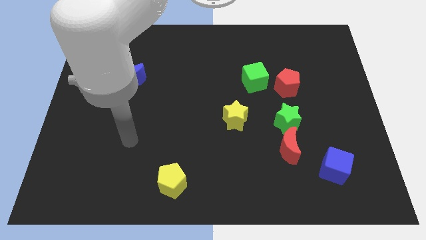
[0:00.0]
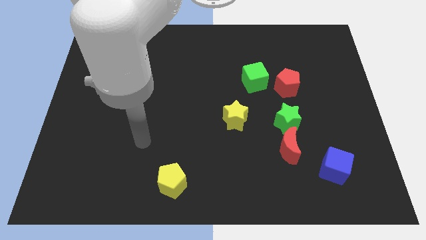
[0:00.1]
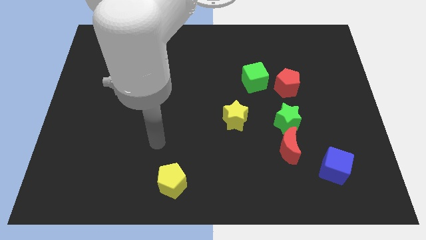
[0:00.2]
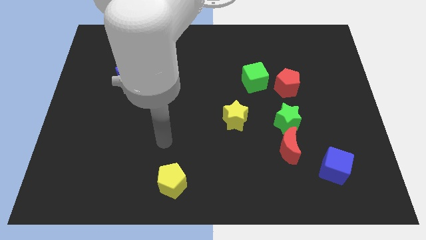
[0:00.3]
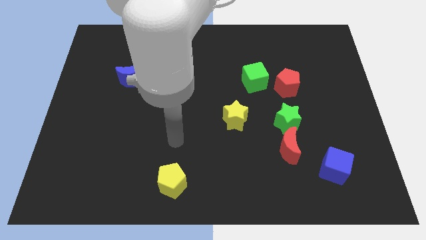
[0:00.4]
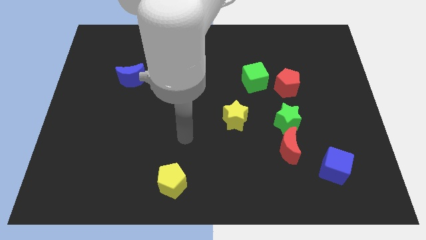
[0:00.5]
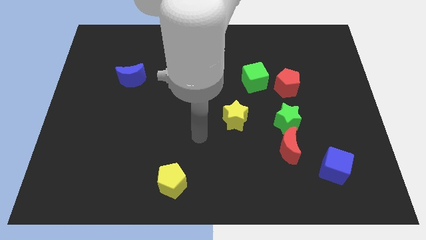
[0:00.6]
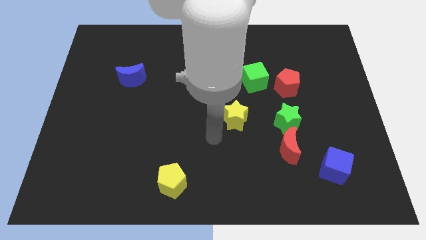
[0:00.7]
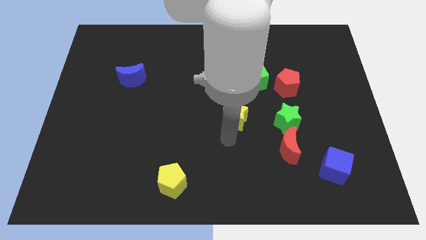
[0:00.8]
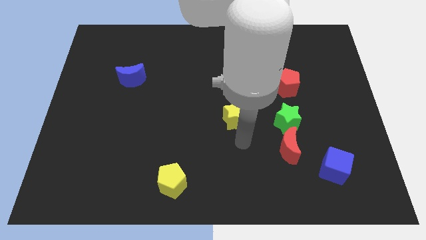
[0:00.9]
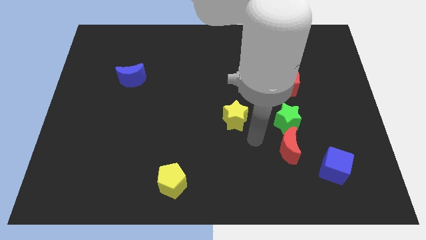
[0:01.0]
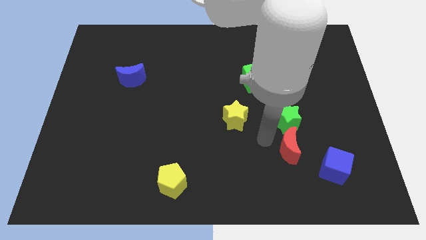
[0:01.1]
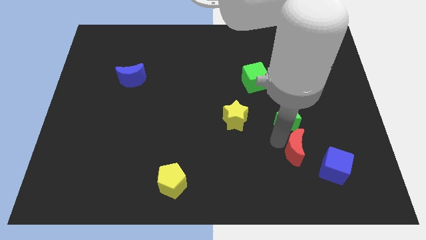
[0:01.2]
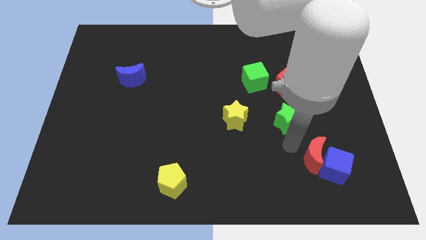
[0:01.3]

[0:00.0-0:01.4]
pull the green star apart from the red moon

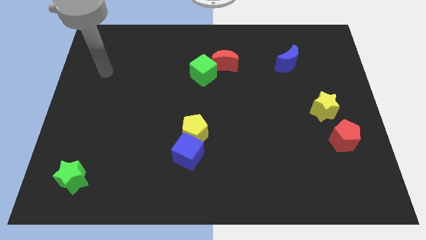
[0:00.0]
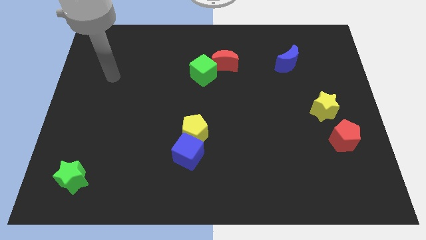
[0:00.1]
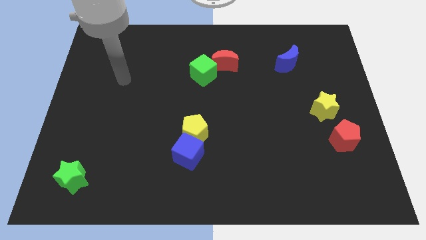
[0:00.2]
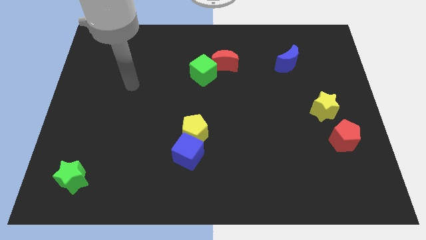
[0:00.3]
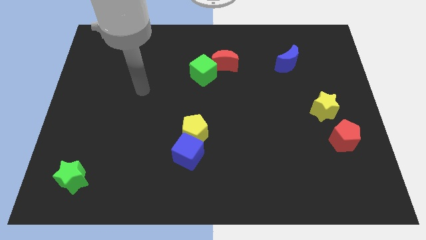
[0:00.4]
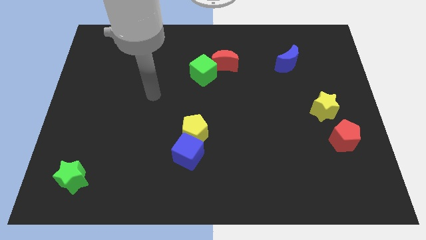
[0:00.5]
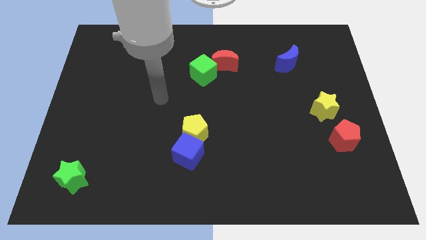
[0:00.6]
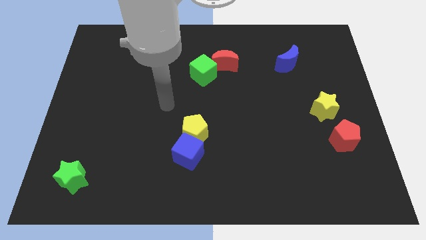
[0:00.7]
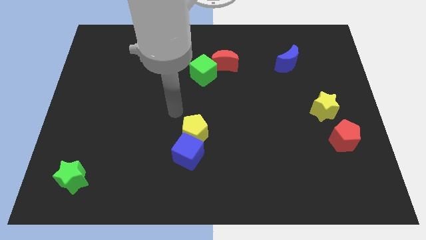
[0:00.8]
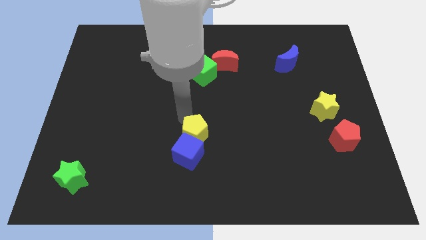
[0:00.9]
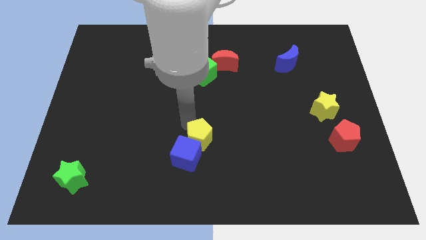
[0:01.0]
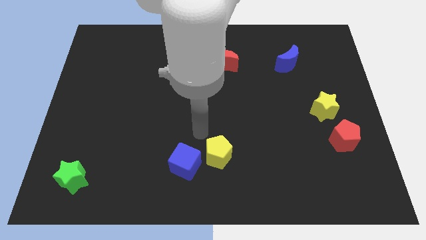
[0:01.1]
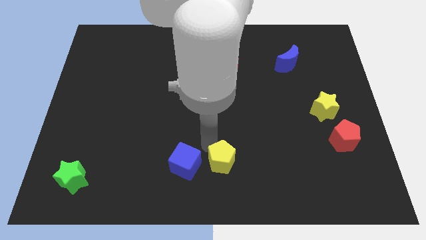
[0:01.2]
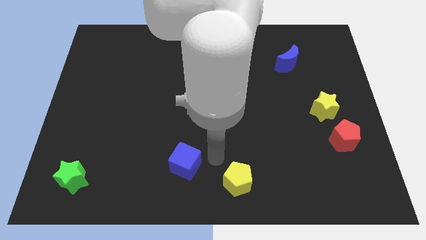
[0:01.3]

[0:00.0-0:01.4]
pull the blue cube apart from the yellow pentagon

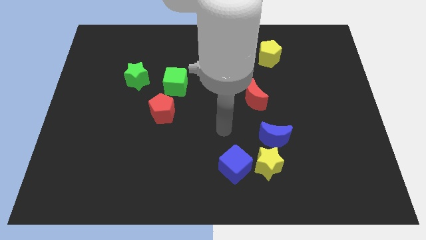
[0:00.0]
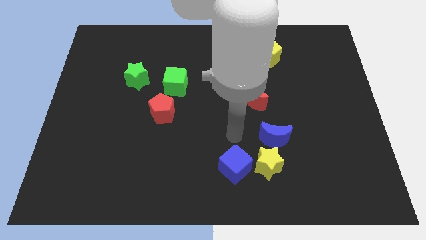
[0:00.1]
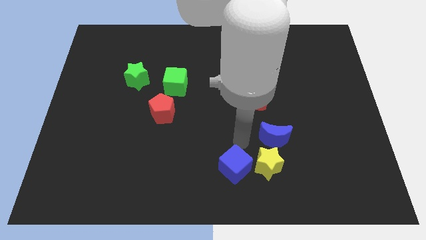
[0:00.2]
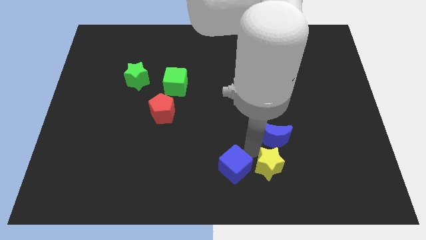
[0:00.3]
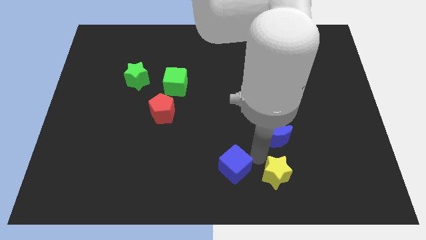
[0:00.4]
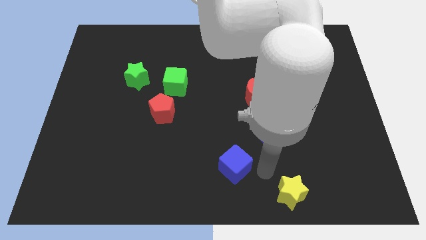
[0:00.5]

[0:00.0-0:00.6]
move the blue cube away from the yellow star

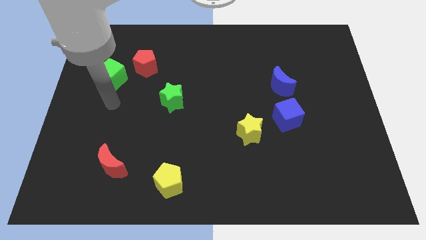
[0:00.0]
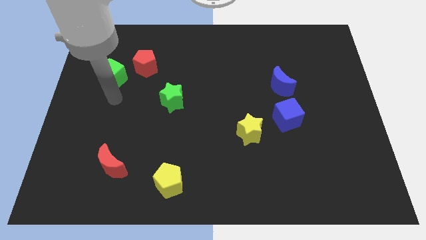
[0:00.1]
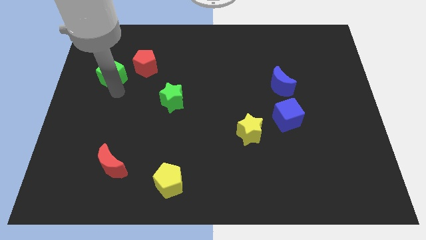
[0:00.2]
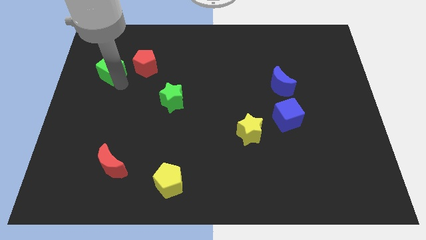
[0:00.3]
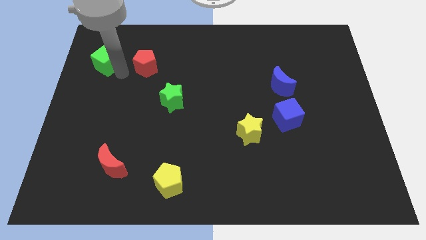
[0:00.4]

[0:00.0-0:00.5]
move the red pentagon away from the green cube

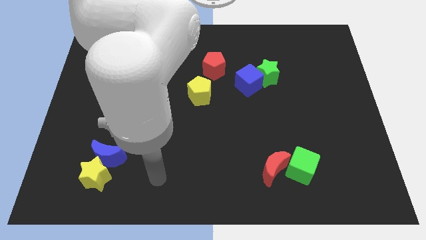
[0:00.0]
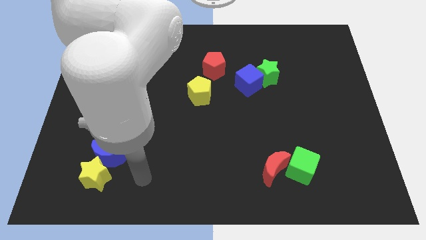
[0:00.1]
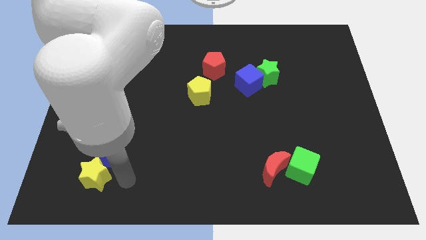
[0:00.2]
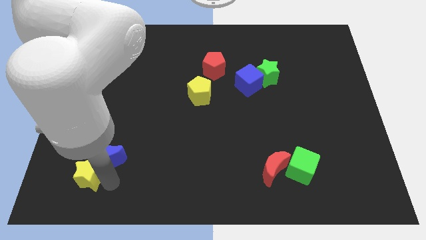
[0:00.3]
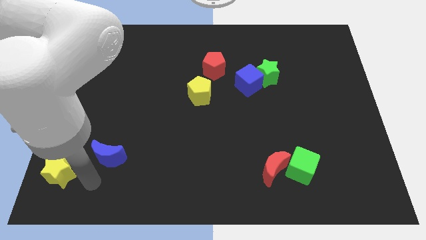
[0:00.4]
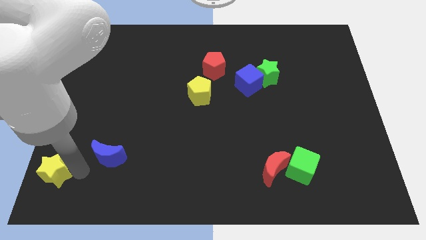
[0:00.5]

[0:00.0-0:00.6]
pull the blue moon apart from the yellow star

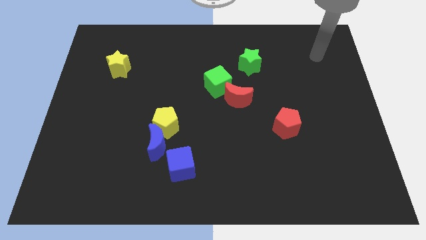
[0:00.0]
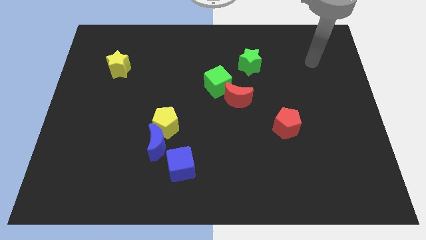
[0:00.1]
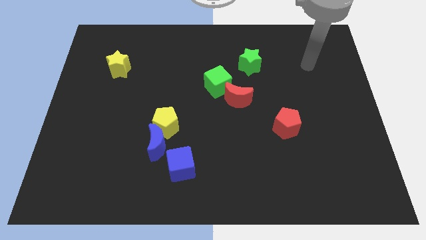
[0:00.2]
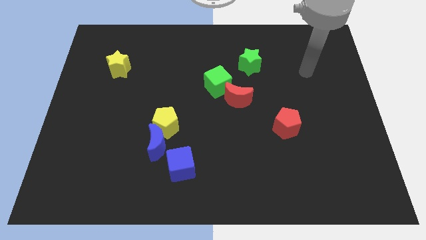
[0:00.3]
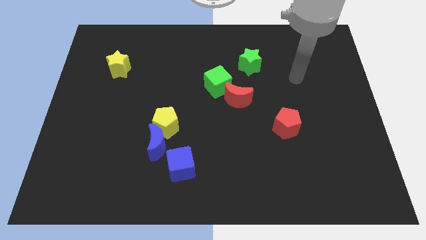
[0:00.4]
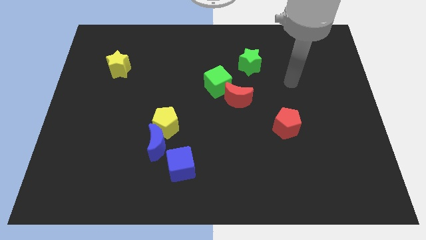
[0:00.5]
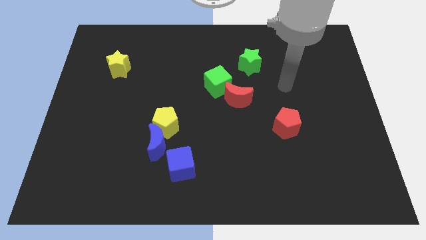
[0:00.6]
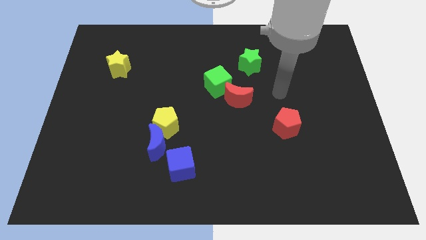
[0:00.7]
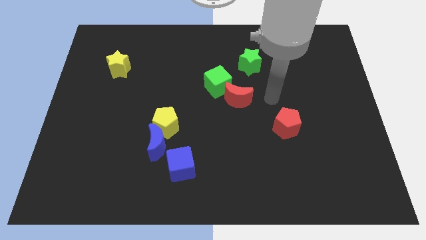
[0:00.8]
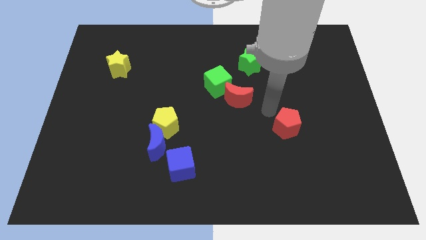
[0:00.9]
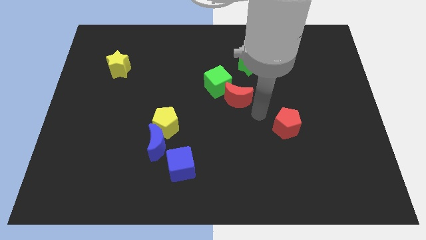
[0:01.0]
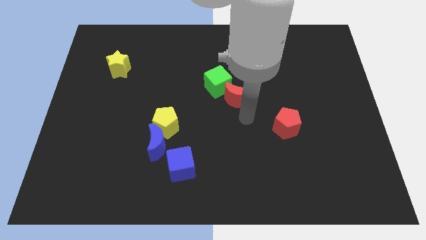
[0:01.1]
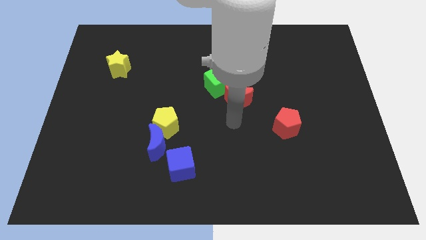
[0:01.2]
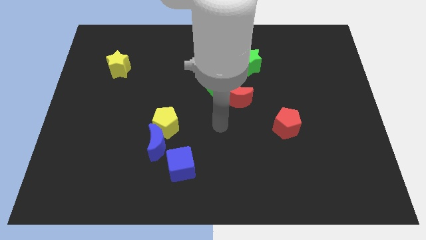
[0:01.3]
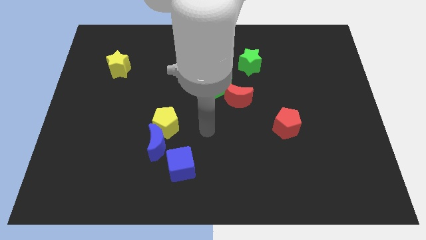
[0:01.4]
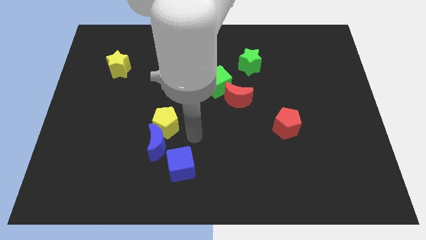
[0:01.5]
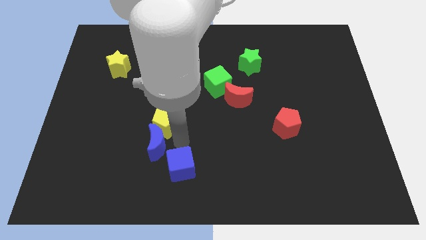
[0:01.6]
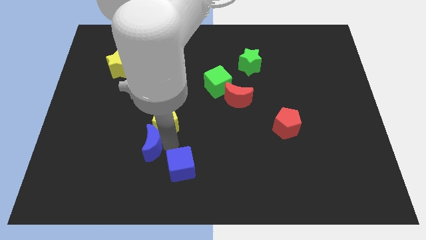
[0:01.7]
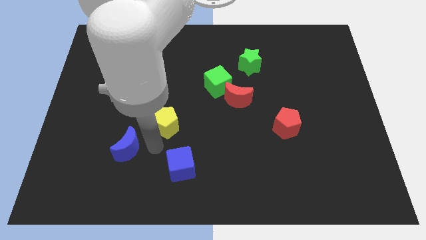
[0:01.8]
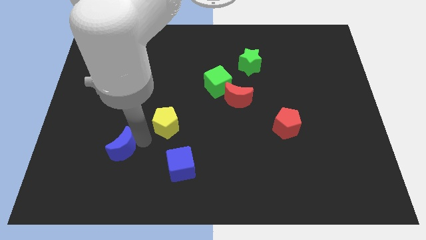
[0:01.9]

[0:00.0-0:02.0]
move the yellow pentagon away from the blue moon

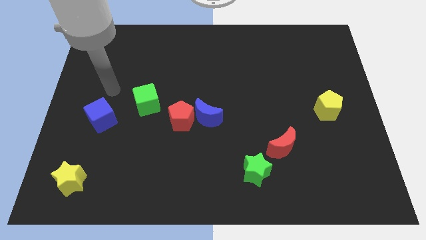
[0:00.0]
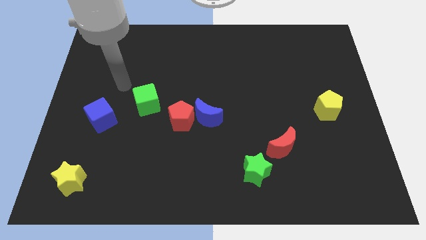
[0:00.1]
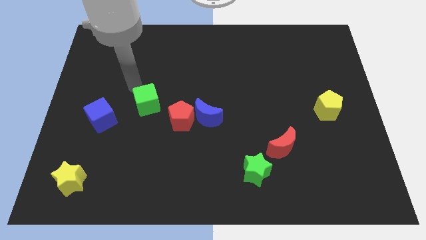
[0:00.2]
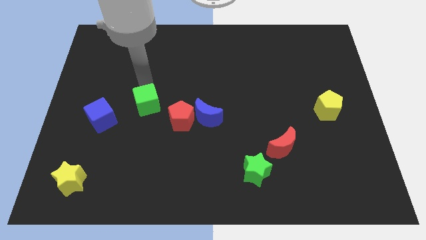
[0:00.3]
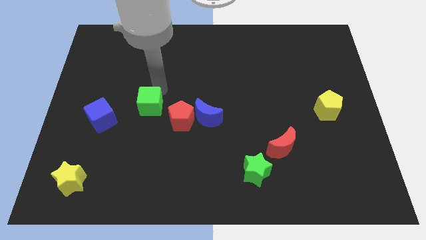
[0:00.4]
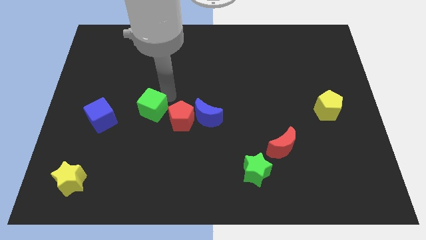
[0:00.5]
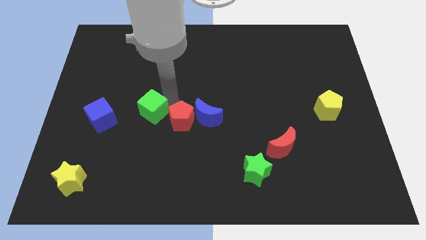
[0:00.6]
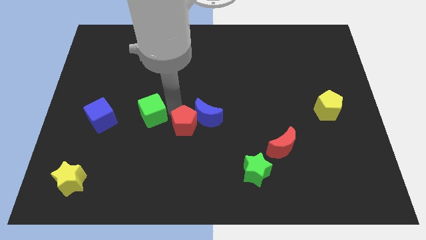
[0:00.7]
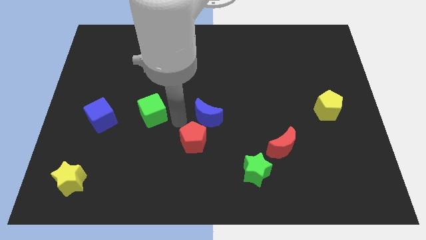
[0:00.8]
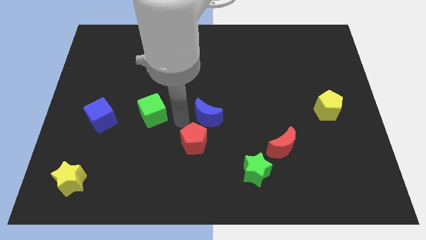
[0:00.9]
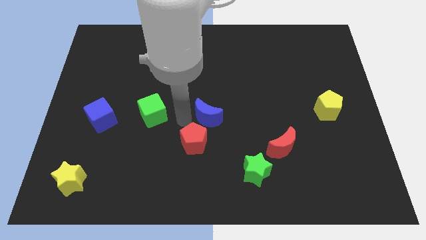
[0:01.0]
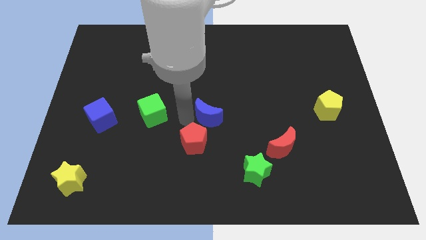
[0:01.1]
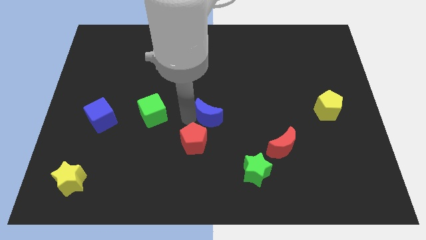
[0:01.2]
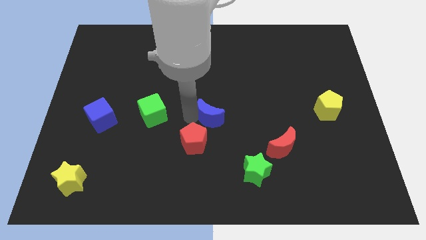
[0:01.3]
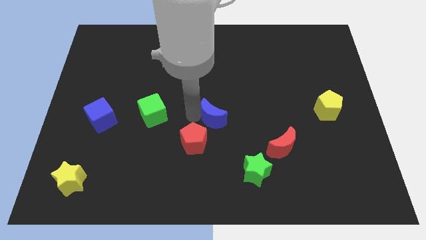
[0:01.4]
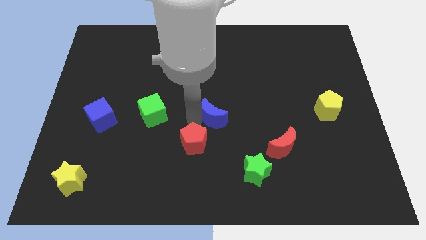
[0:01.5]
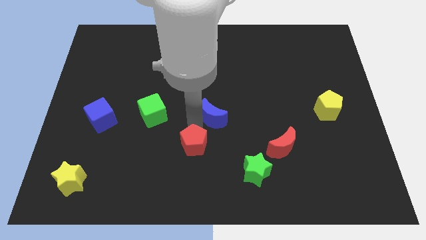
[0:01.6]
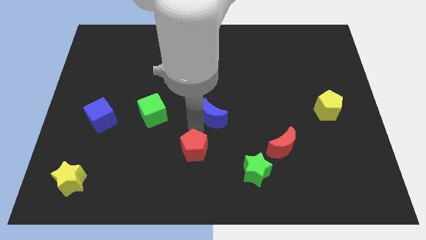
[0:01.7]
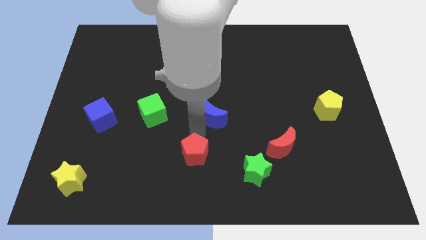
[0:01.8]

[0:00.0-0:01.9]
move the blue moon away from the red pentagon

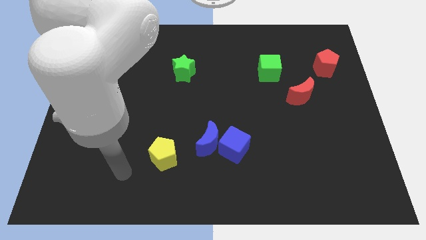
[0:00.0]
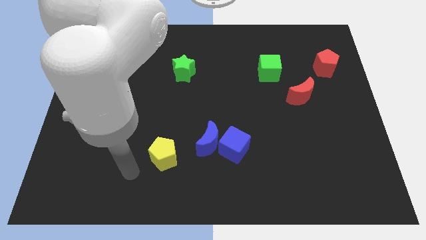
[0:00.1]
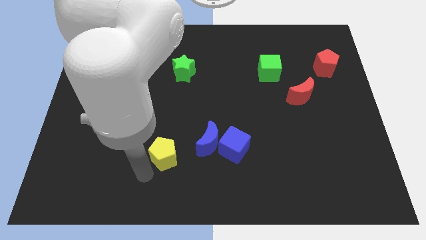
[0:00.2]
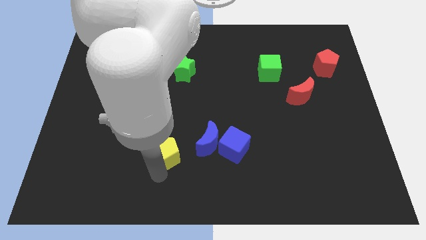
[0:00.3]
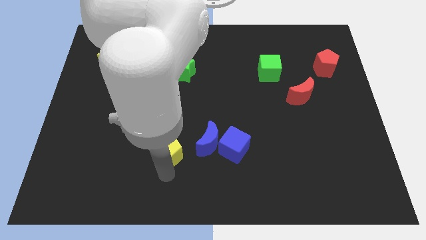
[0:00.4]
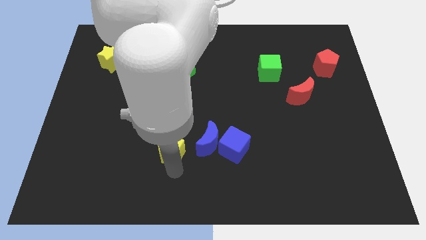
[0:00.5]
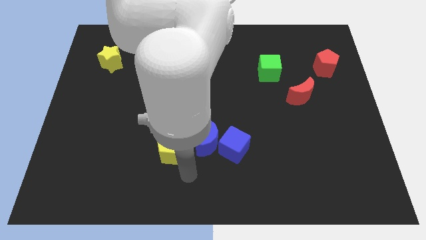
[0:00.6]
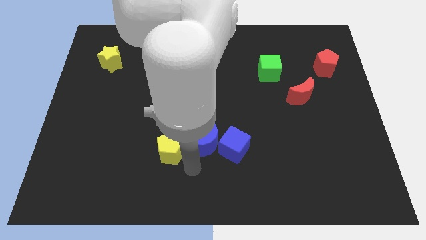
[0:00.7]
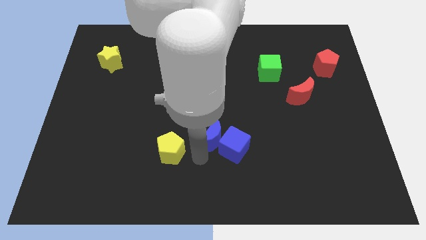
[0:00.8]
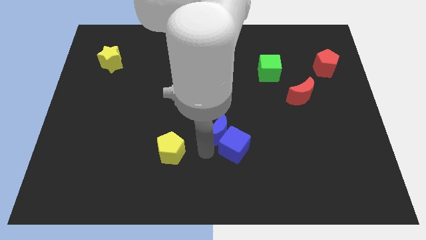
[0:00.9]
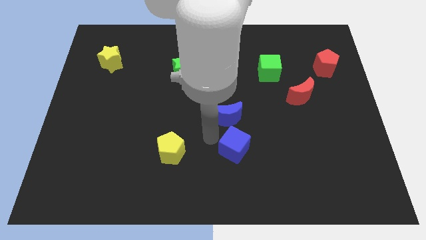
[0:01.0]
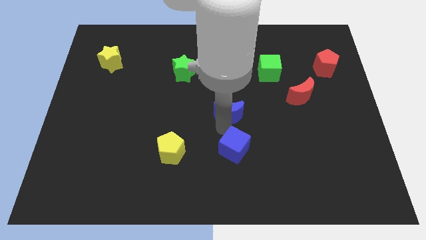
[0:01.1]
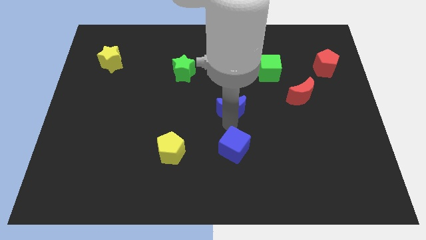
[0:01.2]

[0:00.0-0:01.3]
separate the blue cube from the blue moon
